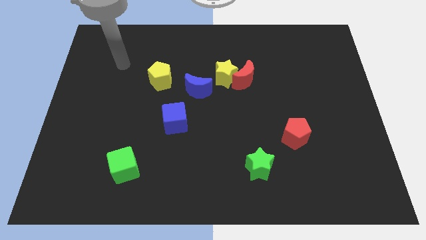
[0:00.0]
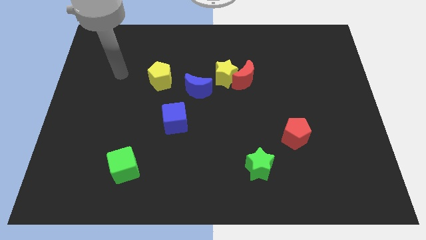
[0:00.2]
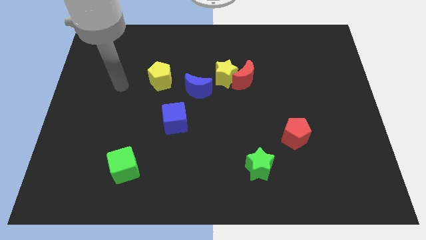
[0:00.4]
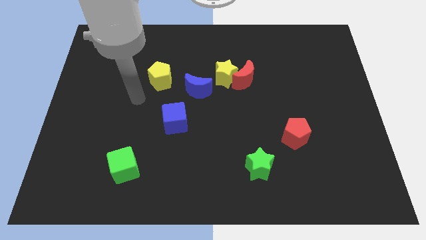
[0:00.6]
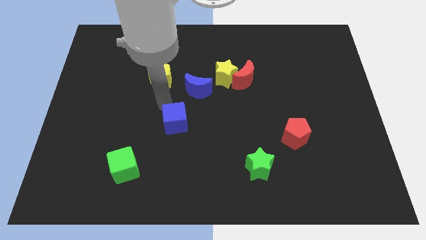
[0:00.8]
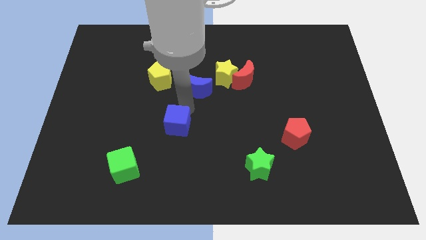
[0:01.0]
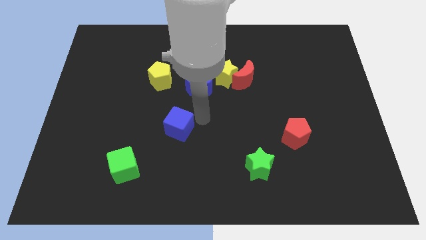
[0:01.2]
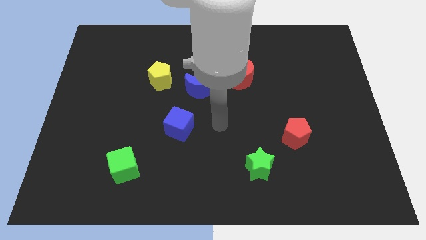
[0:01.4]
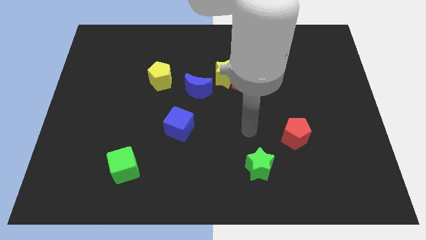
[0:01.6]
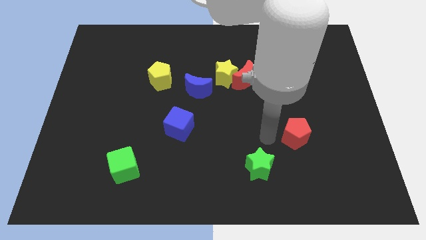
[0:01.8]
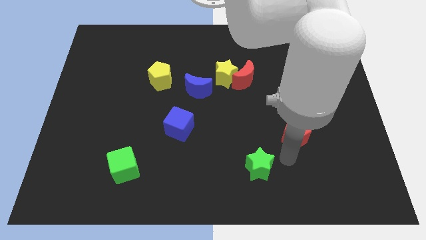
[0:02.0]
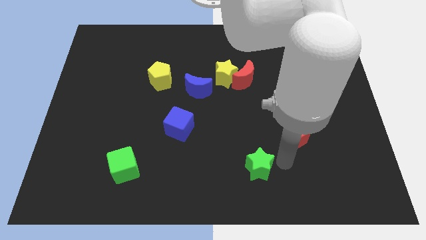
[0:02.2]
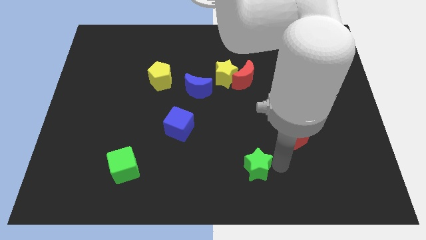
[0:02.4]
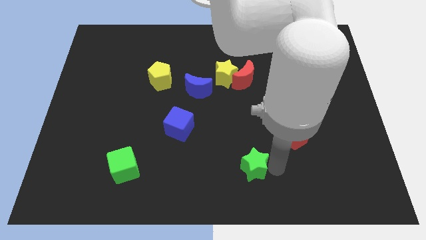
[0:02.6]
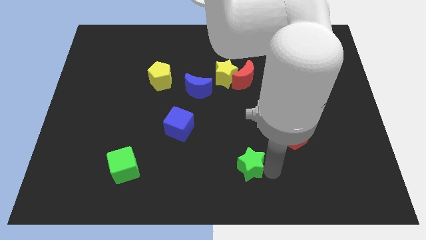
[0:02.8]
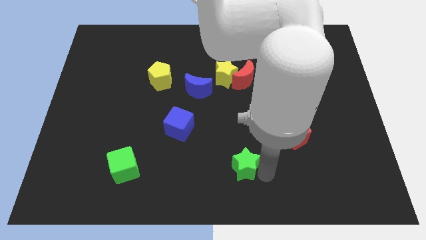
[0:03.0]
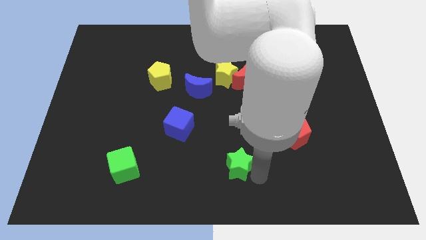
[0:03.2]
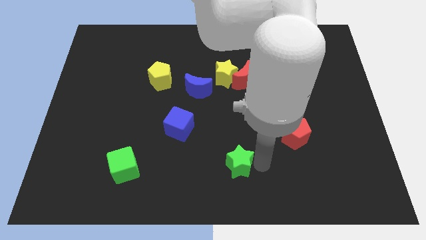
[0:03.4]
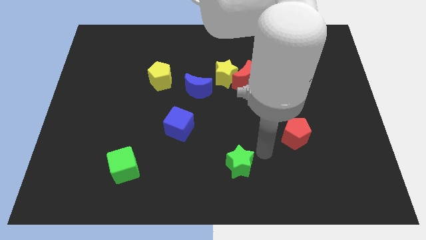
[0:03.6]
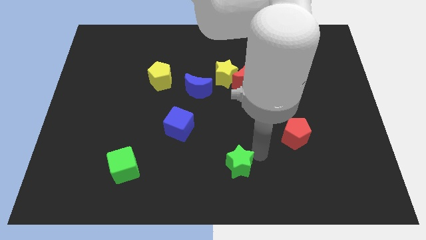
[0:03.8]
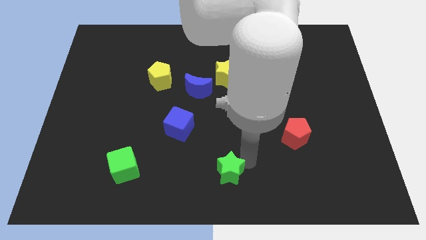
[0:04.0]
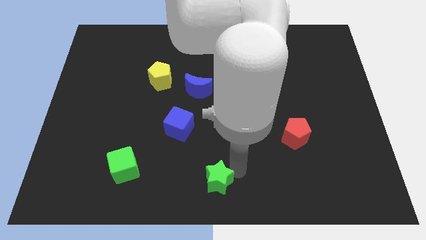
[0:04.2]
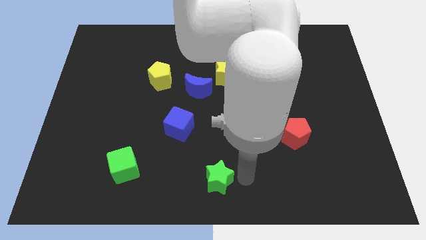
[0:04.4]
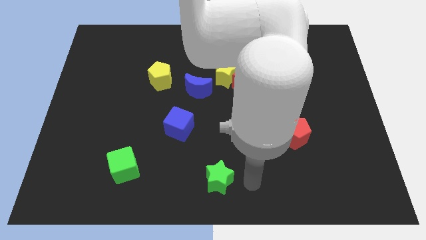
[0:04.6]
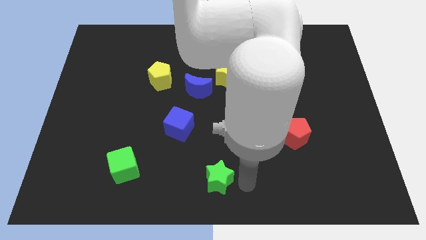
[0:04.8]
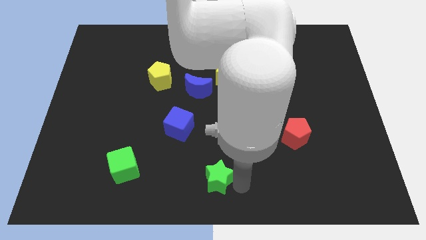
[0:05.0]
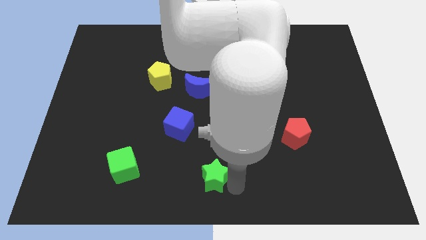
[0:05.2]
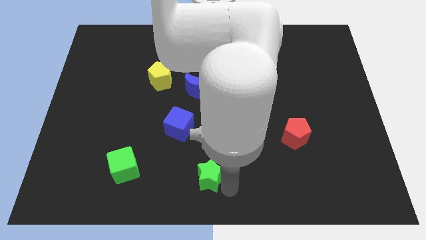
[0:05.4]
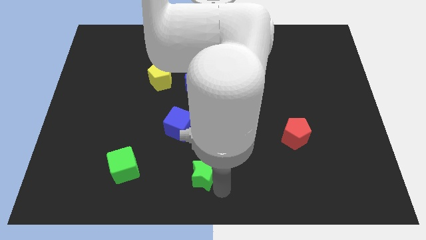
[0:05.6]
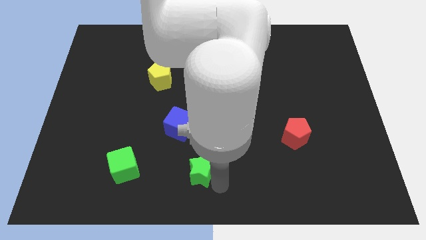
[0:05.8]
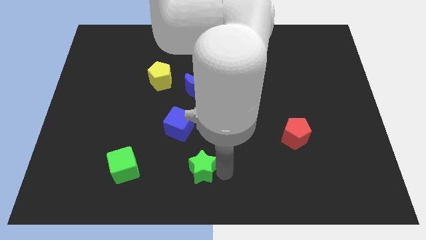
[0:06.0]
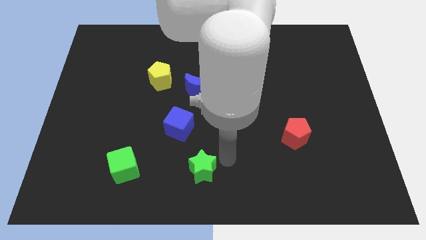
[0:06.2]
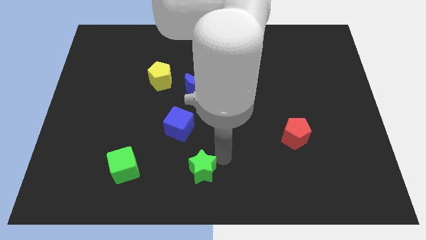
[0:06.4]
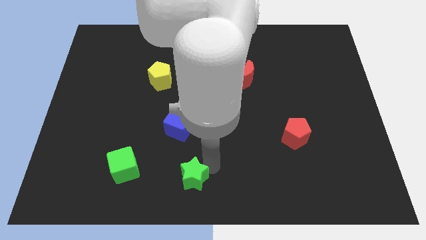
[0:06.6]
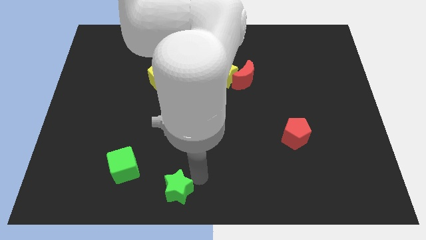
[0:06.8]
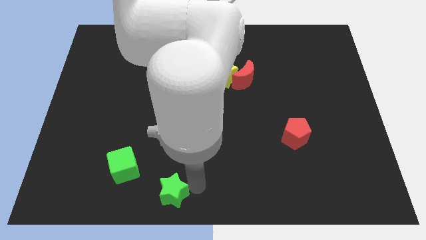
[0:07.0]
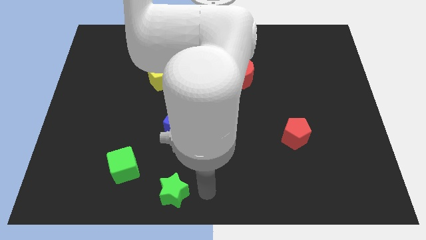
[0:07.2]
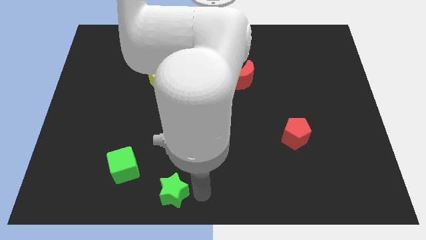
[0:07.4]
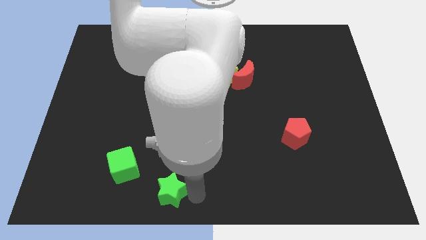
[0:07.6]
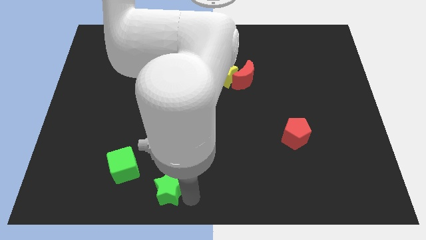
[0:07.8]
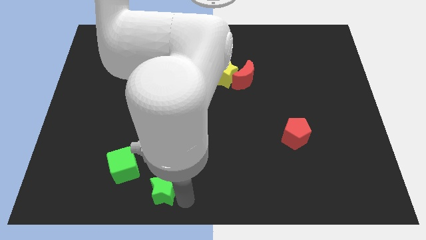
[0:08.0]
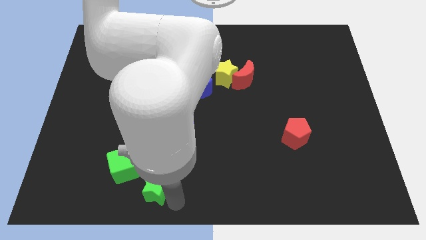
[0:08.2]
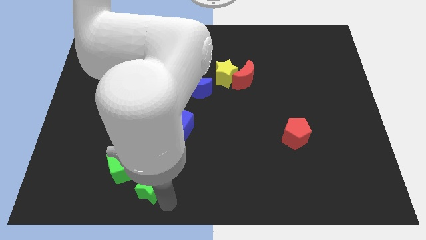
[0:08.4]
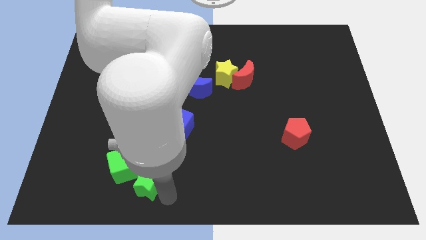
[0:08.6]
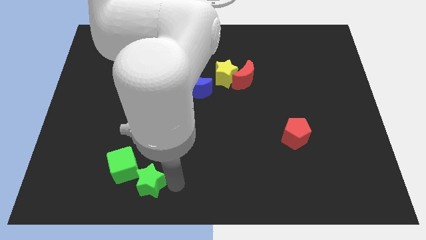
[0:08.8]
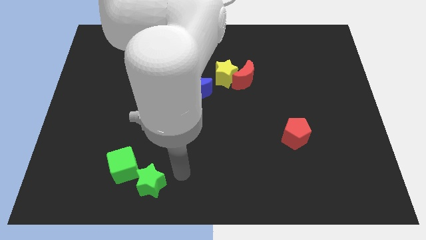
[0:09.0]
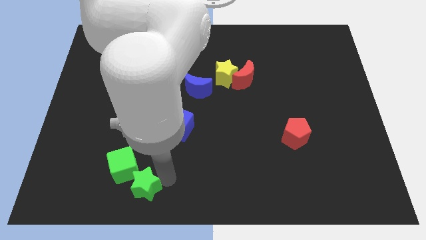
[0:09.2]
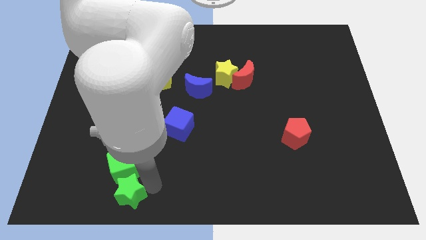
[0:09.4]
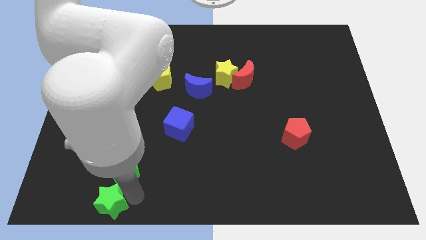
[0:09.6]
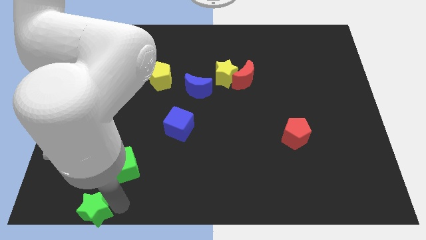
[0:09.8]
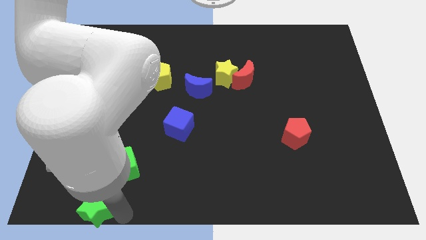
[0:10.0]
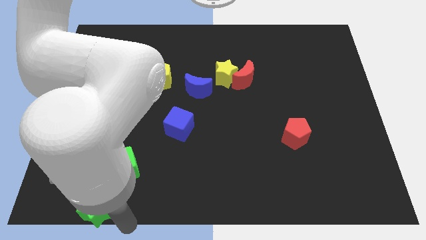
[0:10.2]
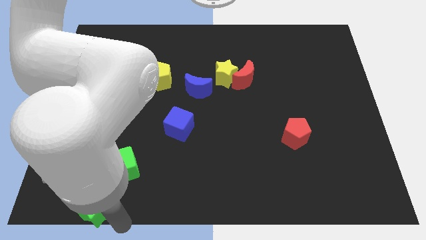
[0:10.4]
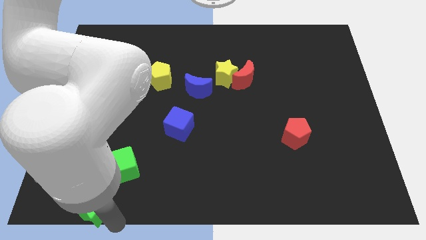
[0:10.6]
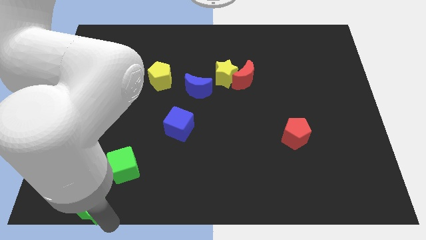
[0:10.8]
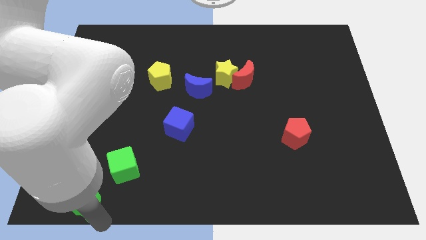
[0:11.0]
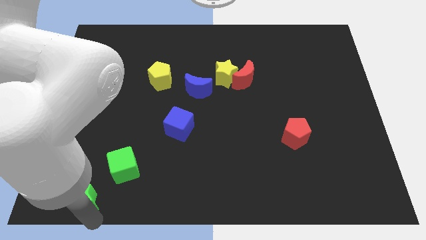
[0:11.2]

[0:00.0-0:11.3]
push the green star to the bottom left of the board

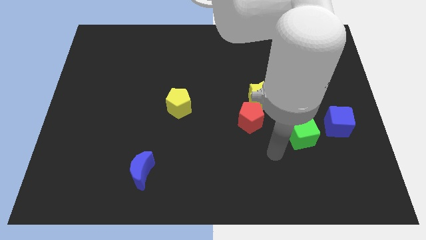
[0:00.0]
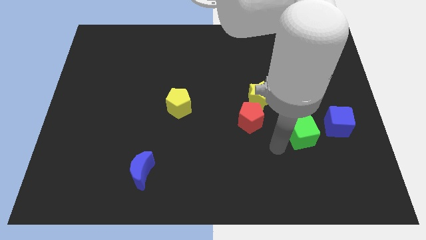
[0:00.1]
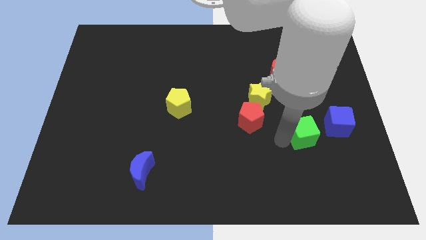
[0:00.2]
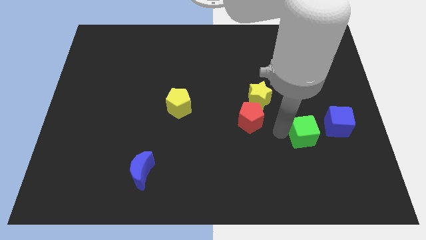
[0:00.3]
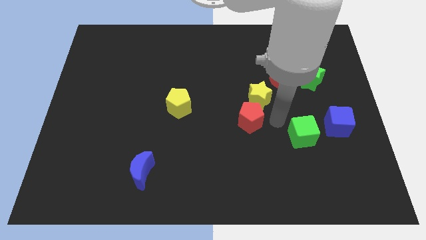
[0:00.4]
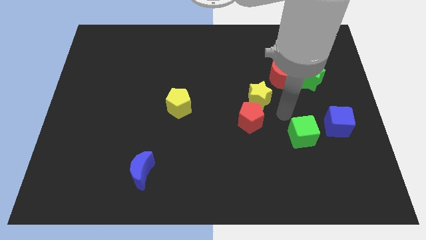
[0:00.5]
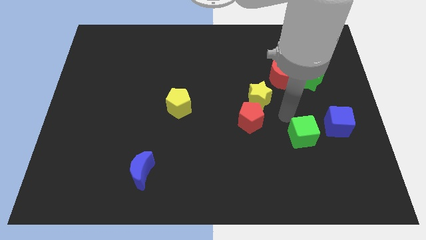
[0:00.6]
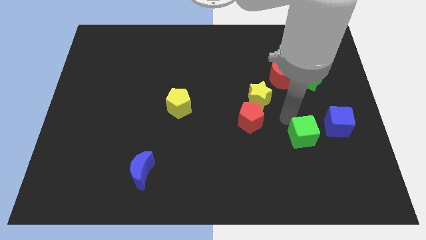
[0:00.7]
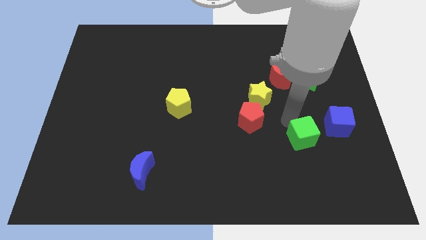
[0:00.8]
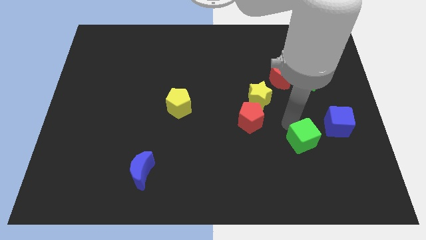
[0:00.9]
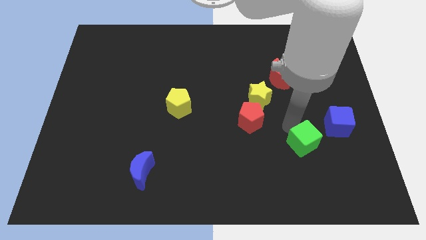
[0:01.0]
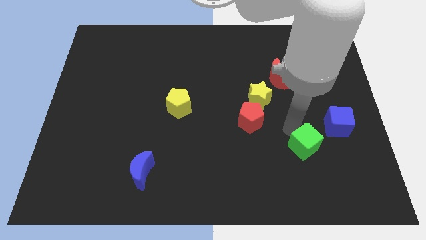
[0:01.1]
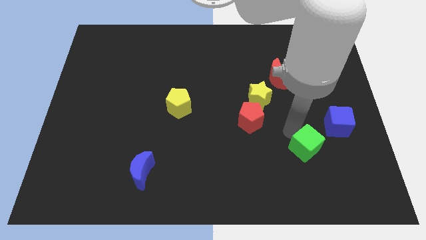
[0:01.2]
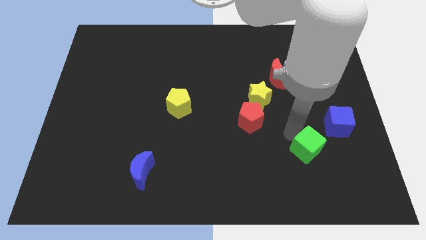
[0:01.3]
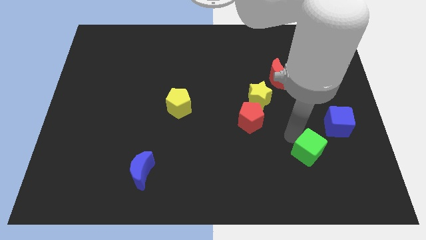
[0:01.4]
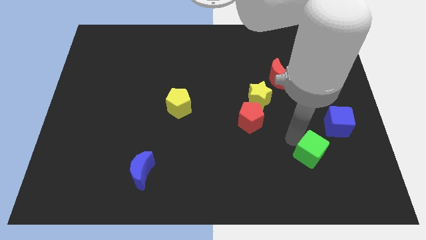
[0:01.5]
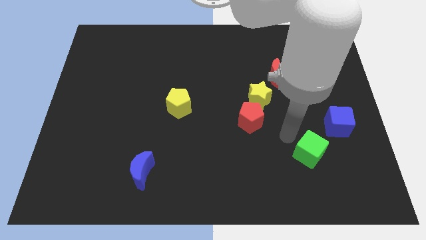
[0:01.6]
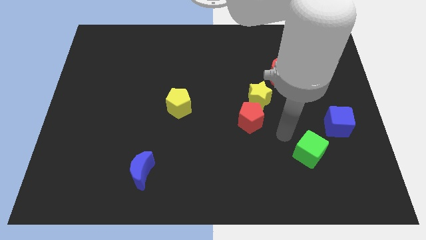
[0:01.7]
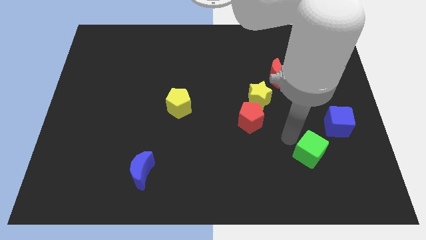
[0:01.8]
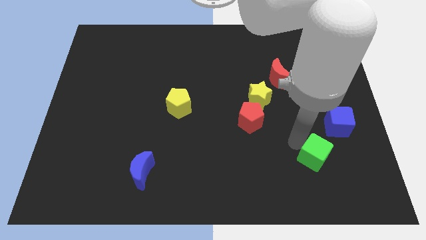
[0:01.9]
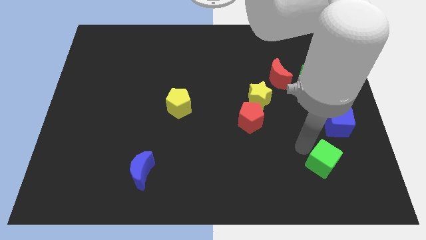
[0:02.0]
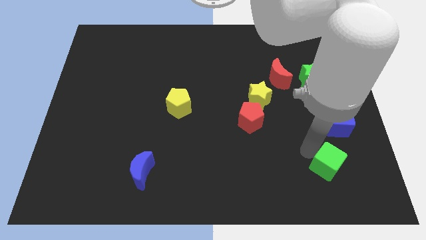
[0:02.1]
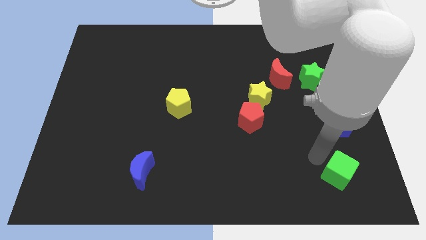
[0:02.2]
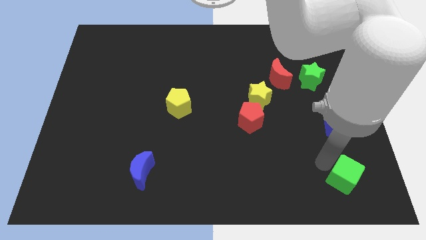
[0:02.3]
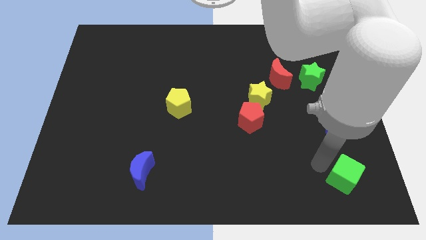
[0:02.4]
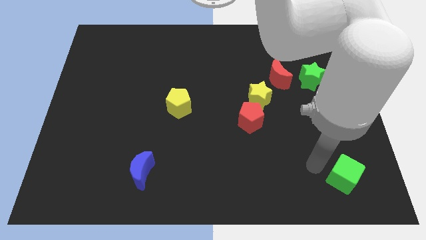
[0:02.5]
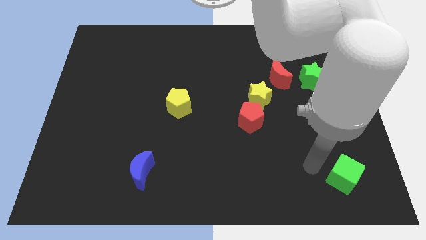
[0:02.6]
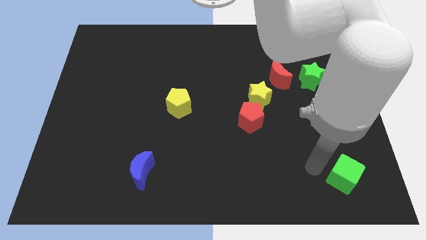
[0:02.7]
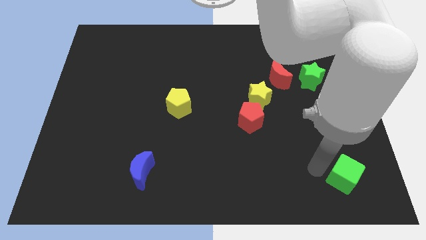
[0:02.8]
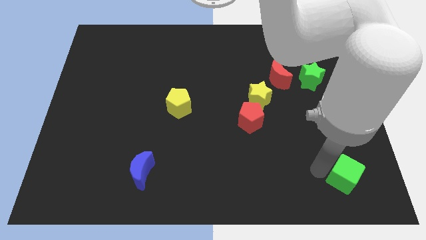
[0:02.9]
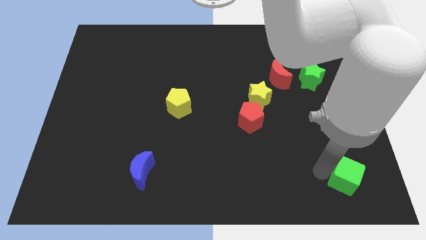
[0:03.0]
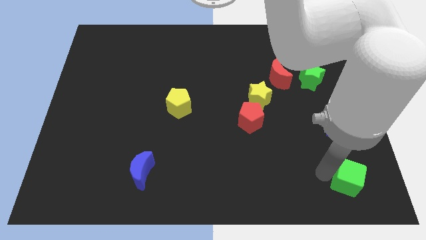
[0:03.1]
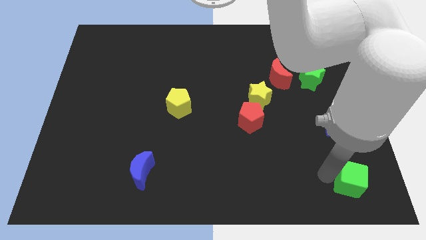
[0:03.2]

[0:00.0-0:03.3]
put the green cube to the bottom right
